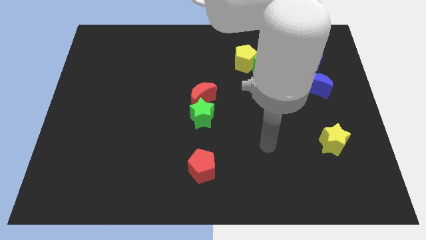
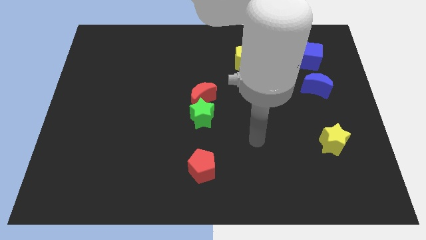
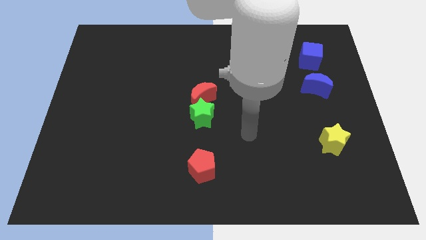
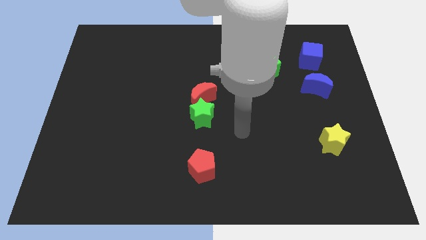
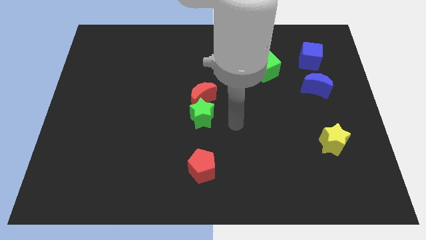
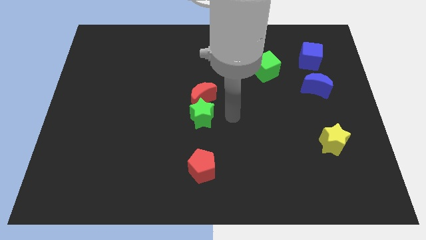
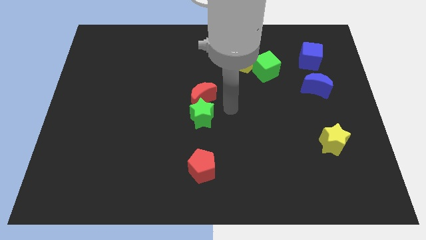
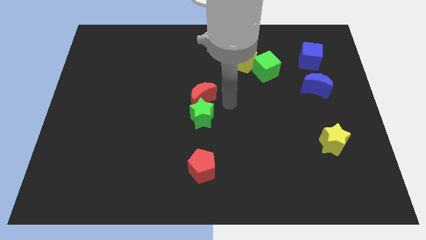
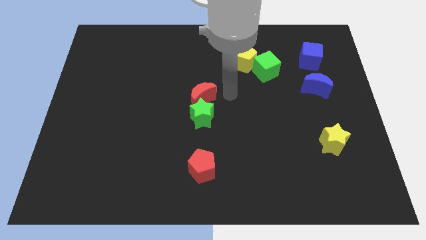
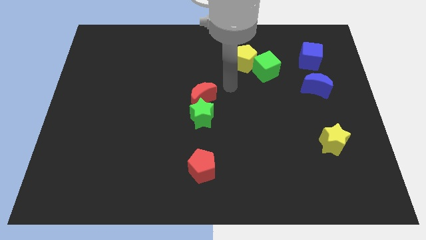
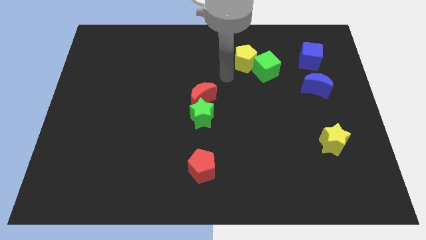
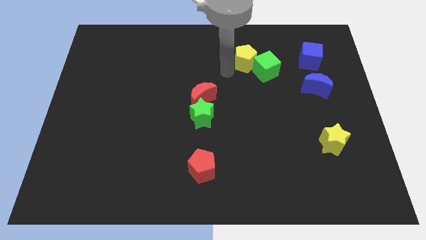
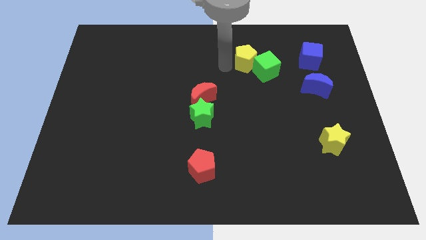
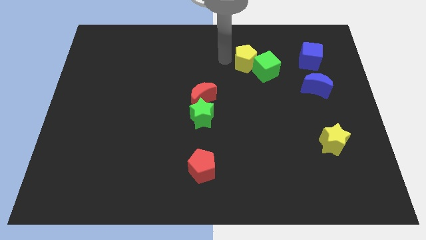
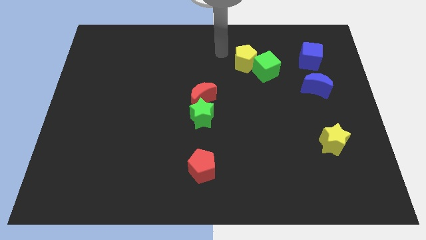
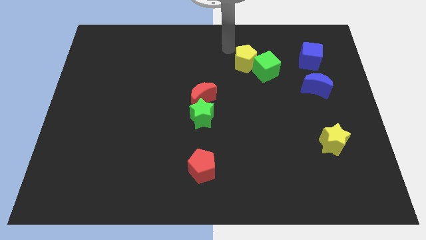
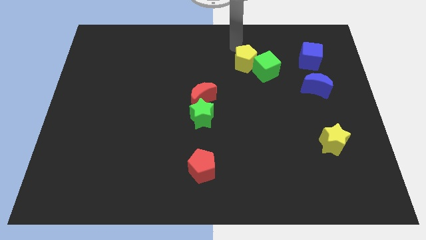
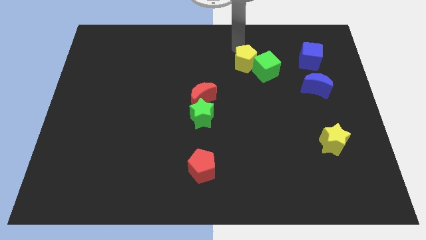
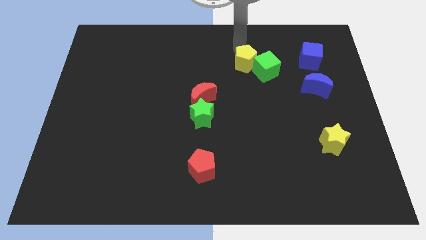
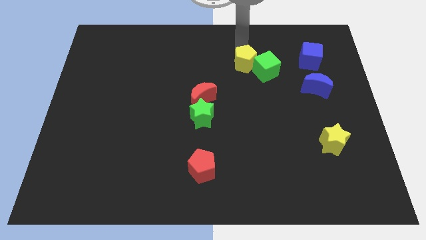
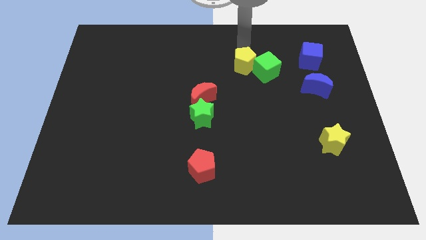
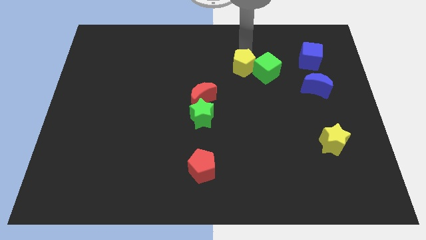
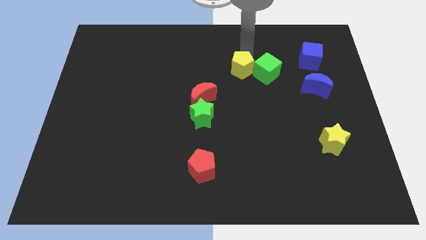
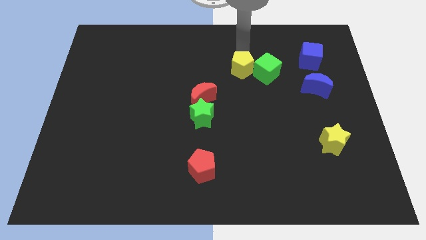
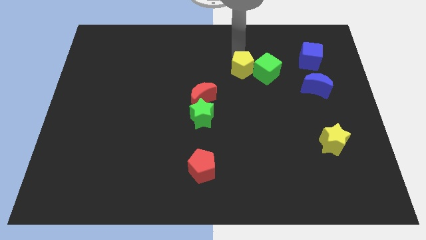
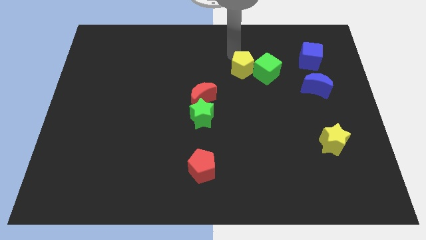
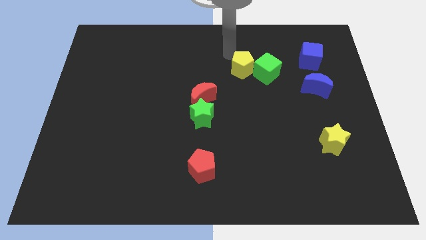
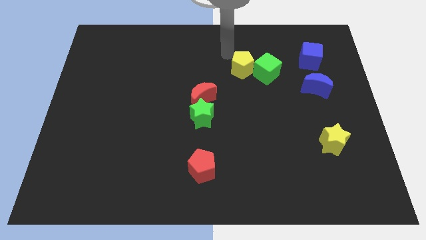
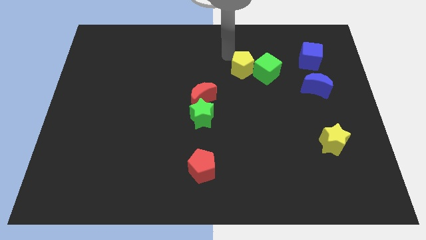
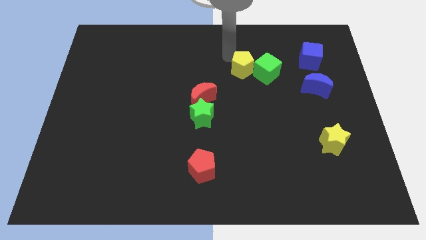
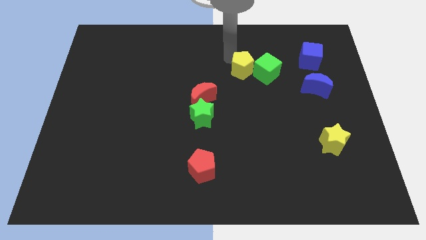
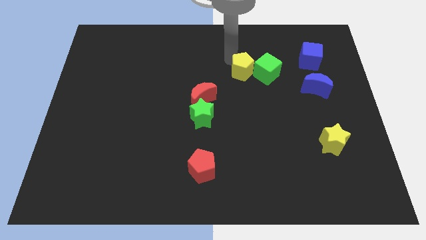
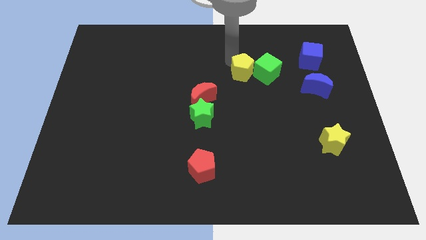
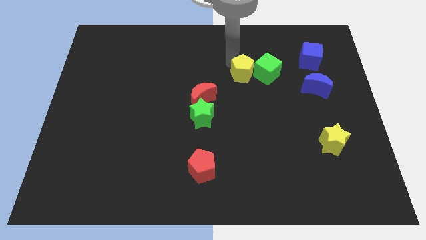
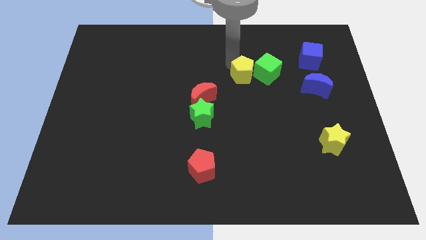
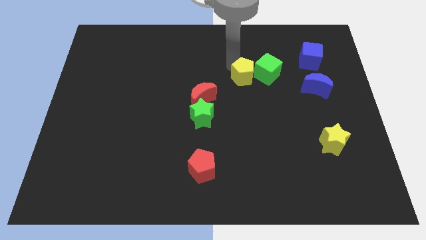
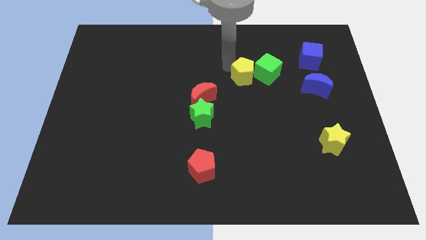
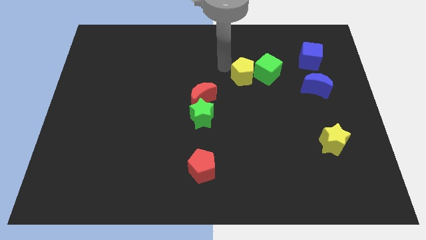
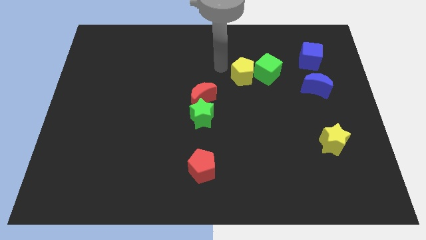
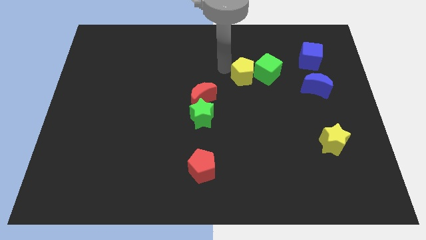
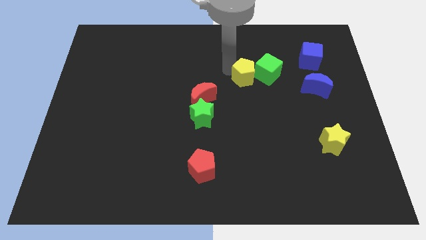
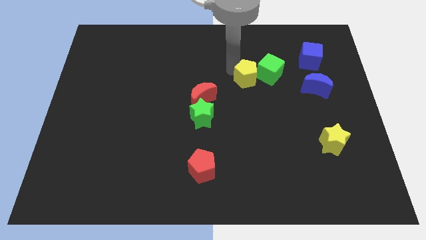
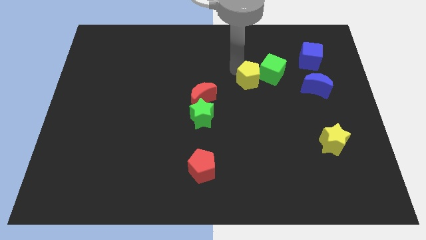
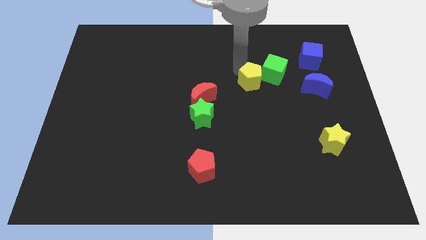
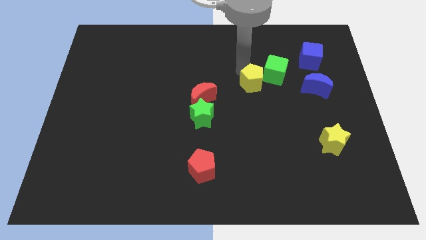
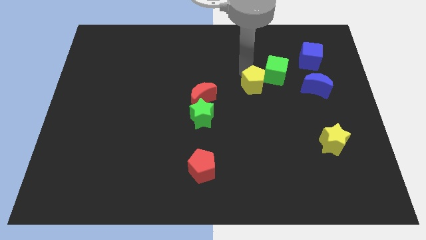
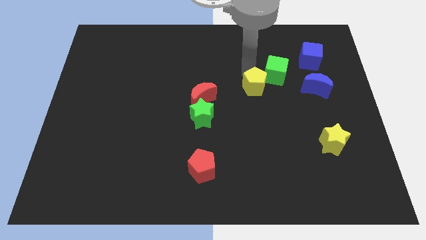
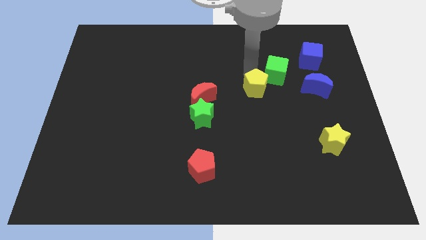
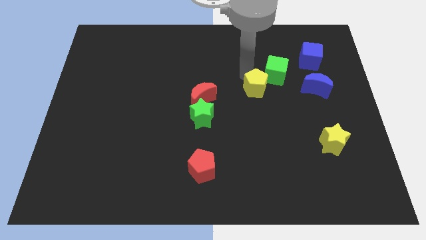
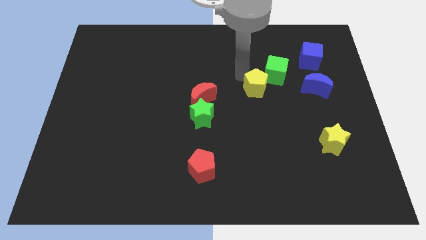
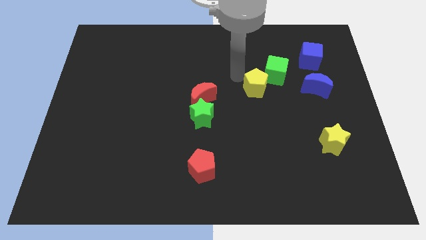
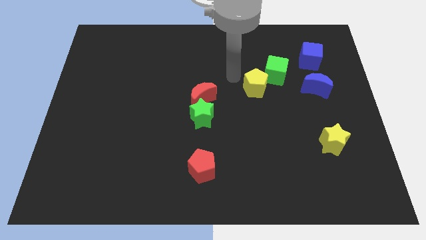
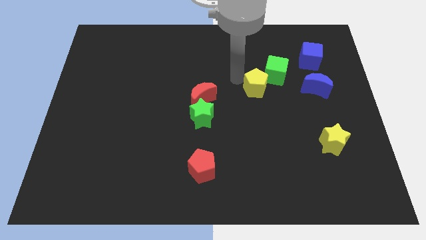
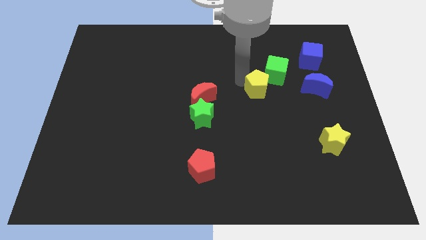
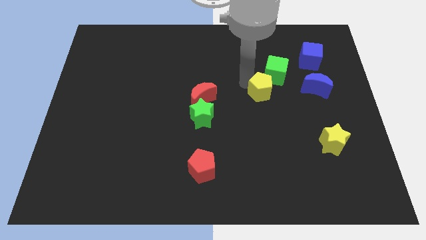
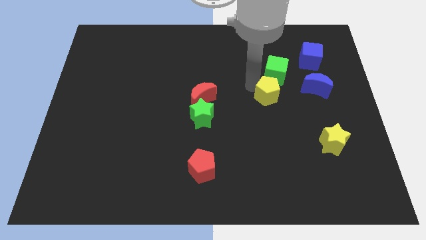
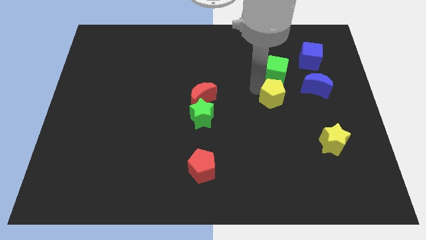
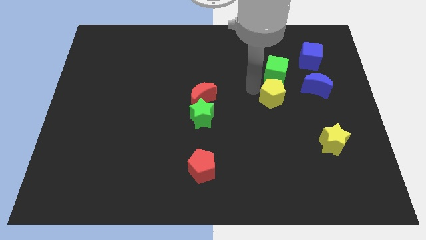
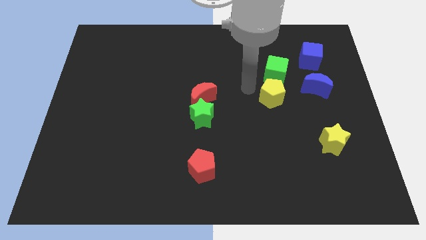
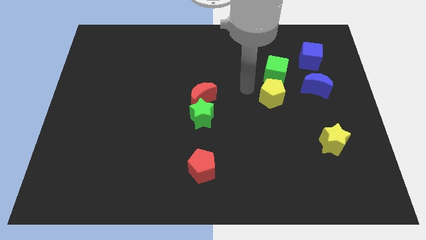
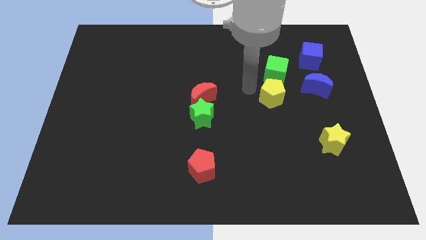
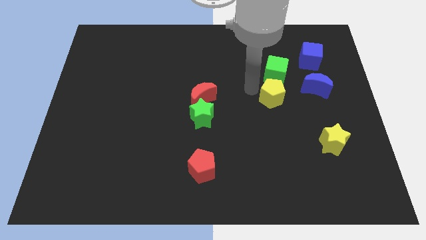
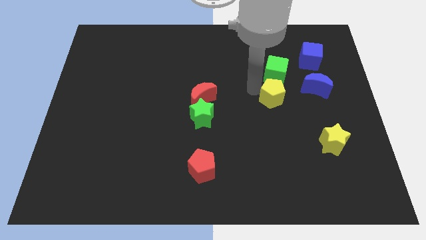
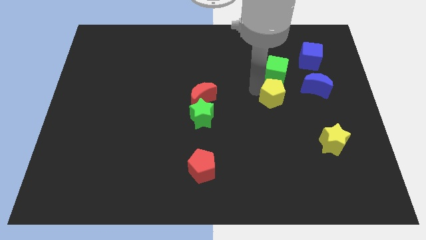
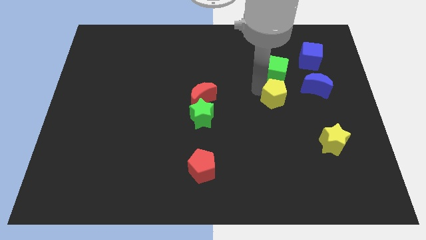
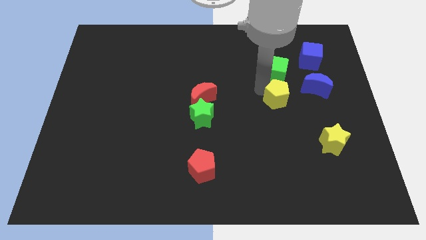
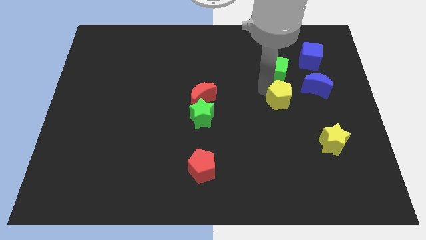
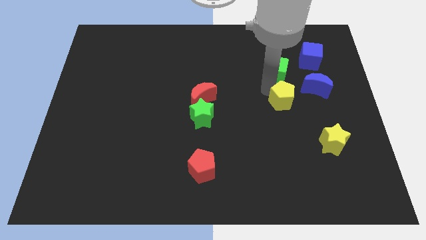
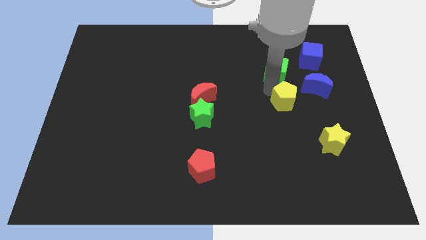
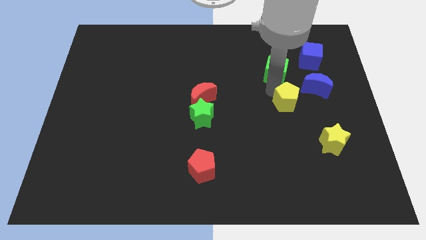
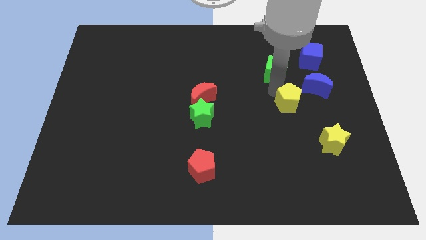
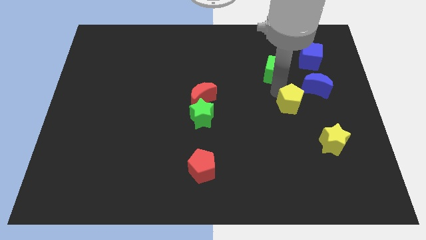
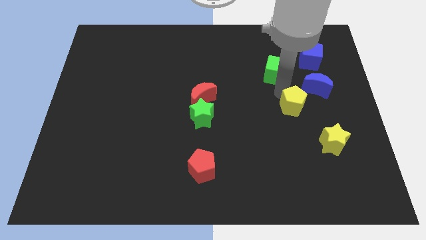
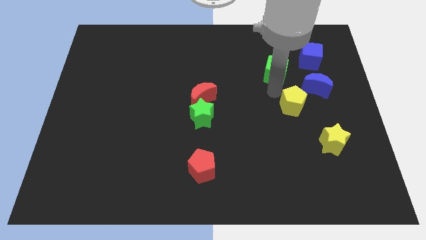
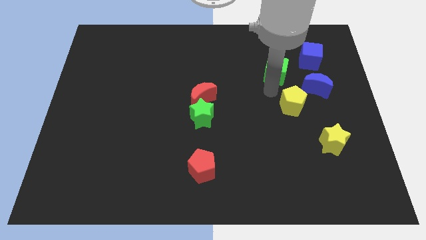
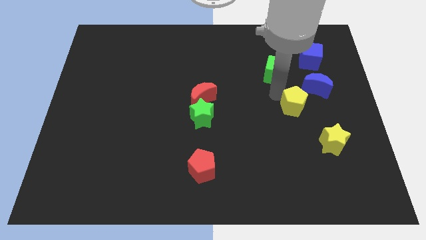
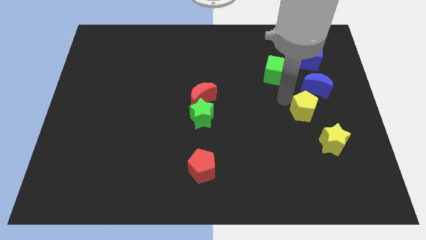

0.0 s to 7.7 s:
put the yellow pentagon to the bottom side of the blue moon
